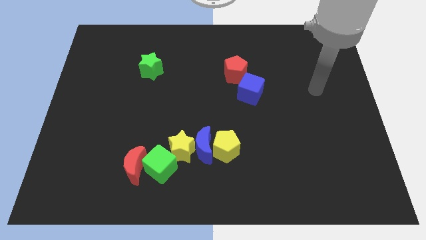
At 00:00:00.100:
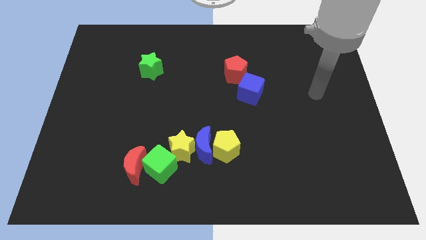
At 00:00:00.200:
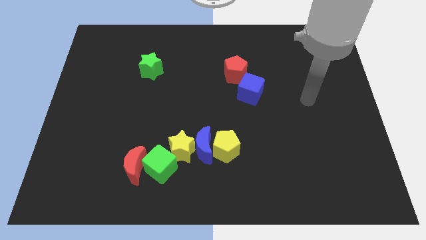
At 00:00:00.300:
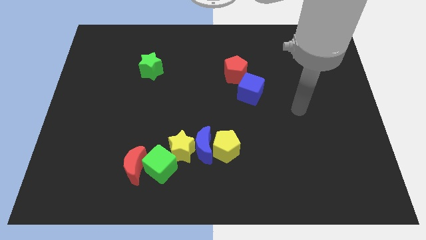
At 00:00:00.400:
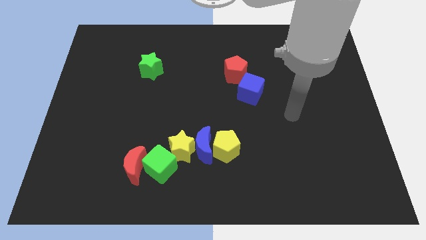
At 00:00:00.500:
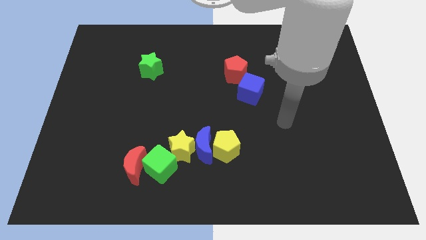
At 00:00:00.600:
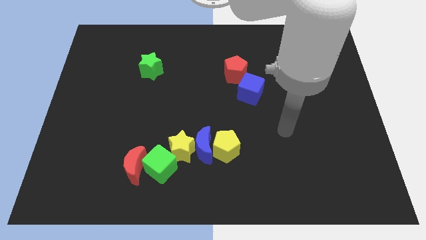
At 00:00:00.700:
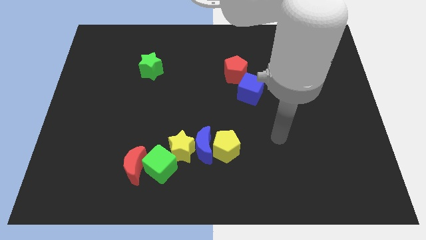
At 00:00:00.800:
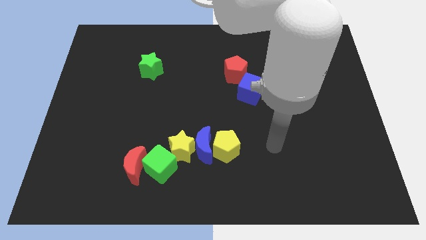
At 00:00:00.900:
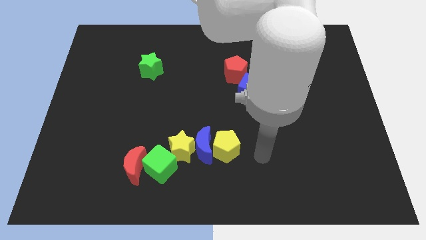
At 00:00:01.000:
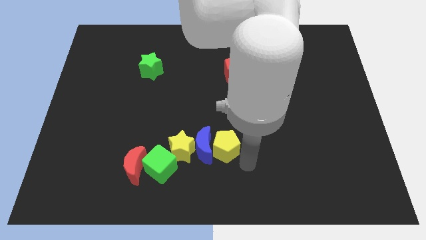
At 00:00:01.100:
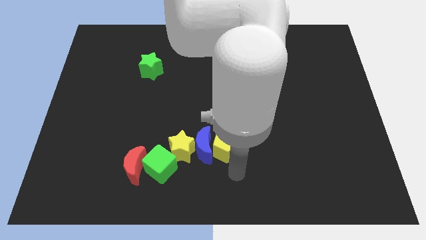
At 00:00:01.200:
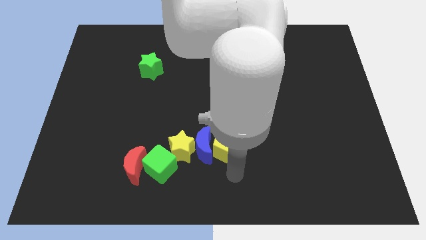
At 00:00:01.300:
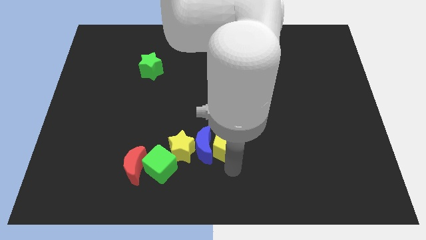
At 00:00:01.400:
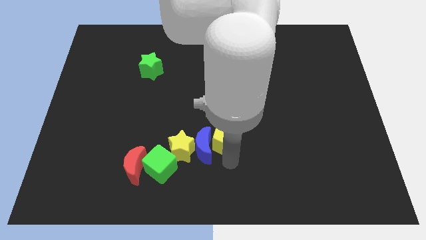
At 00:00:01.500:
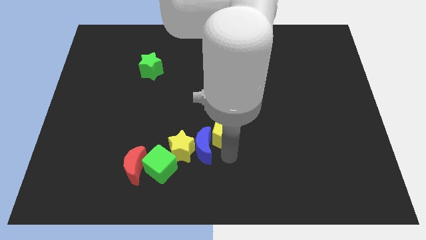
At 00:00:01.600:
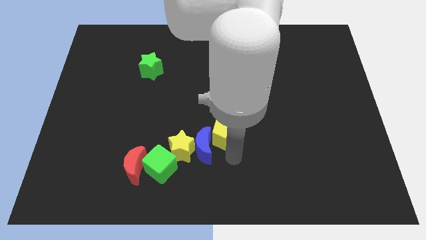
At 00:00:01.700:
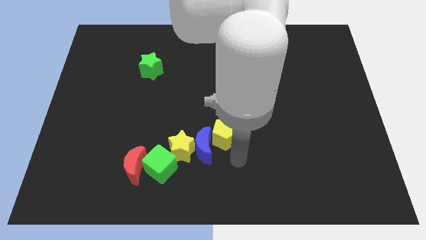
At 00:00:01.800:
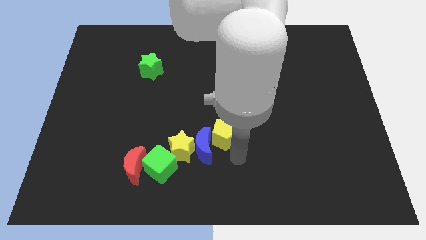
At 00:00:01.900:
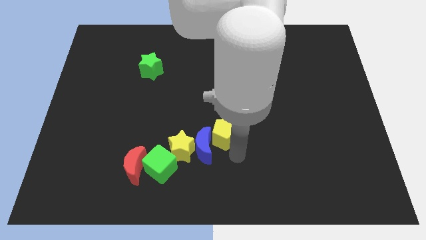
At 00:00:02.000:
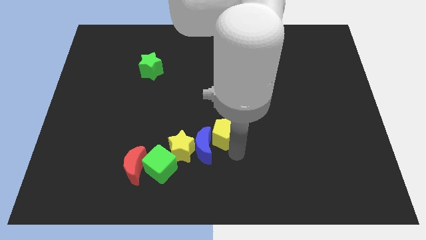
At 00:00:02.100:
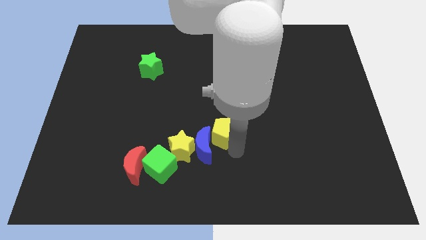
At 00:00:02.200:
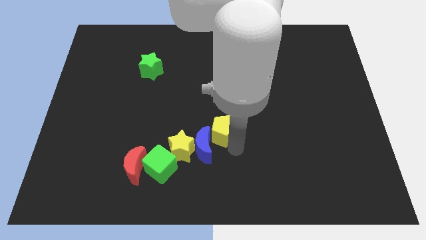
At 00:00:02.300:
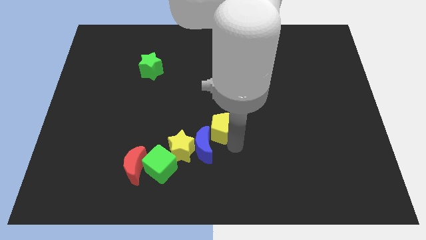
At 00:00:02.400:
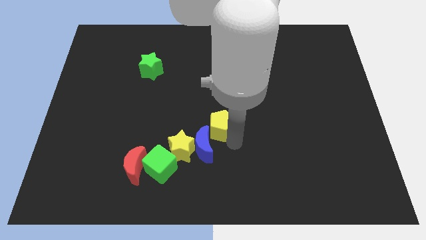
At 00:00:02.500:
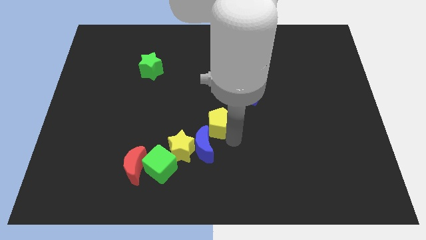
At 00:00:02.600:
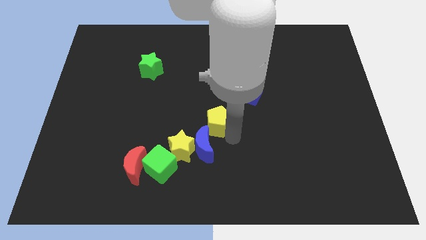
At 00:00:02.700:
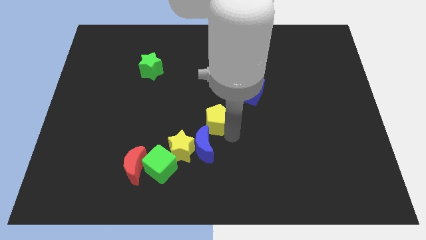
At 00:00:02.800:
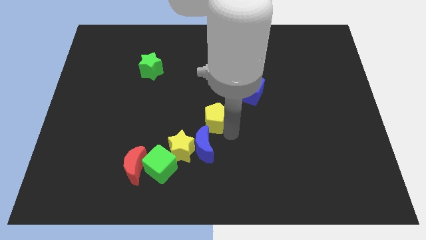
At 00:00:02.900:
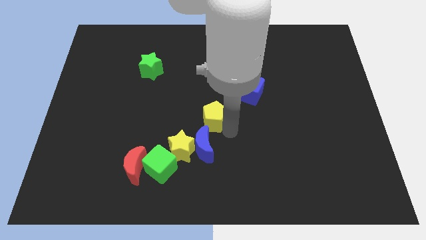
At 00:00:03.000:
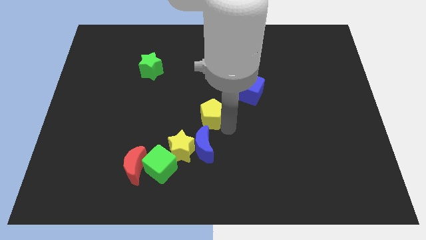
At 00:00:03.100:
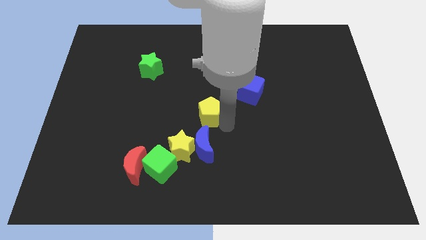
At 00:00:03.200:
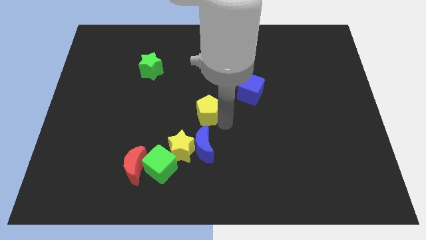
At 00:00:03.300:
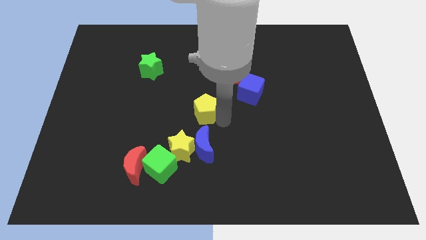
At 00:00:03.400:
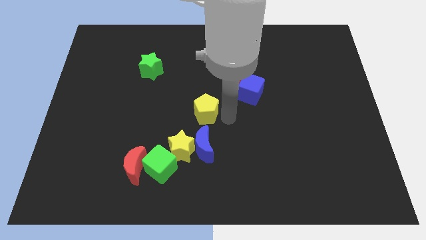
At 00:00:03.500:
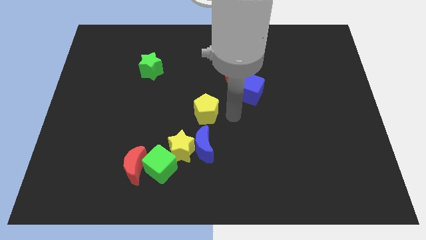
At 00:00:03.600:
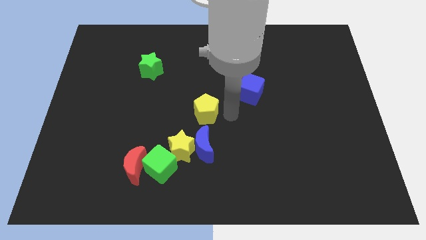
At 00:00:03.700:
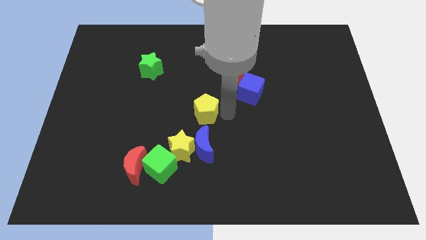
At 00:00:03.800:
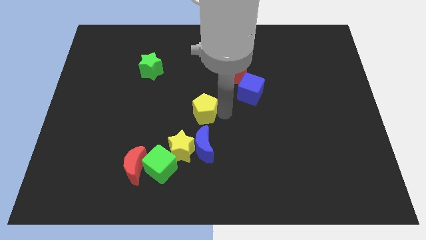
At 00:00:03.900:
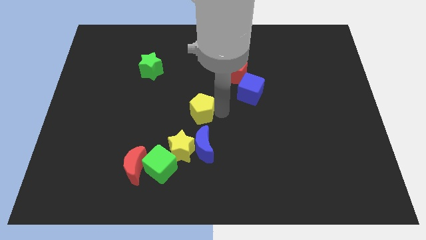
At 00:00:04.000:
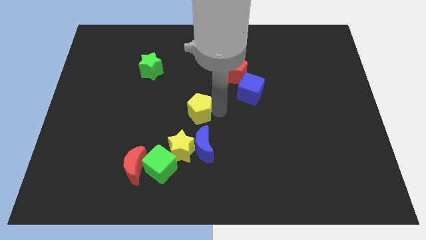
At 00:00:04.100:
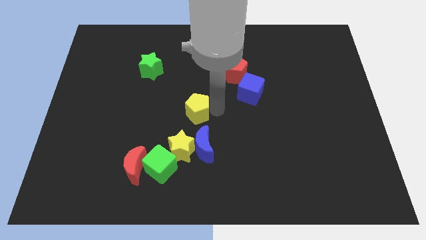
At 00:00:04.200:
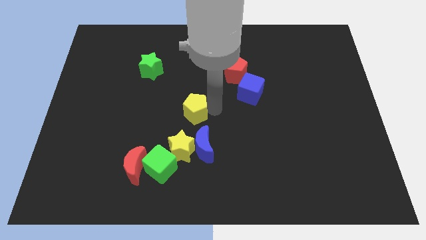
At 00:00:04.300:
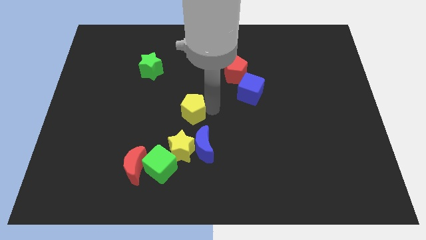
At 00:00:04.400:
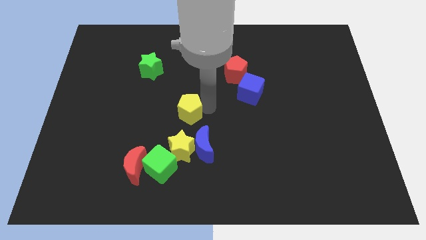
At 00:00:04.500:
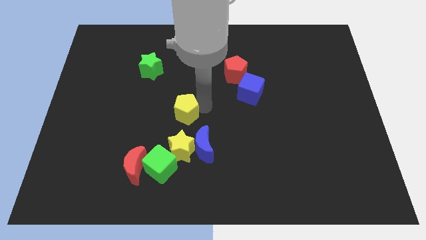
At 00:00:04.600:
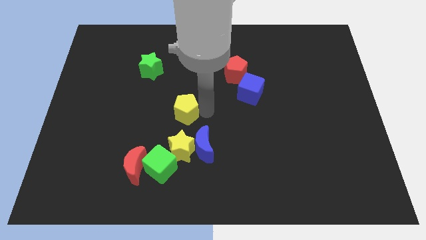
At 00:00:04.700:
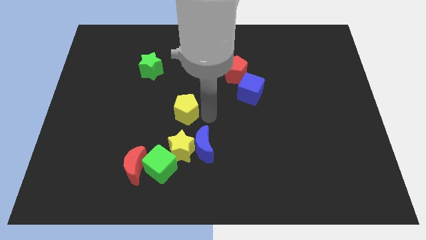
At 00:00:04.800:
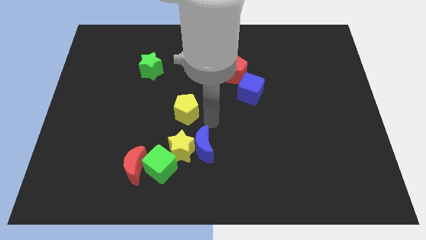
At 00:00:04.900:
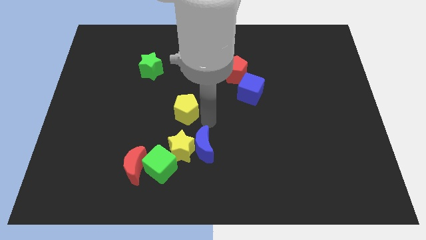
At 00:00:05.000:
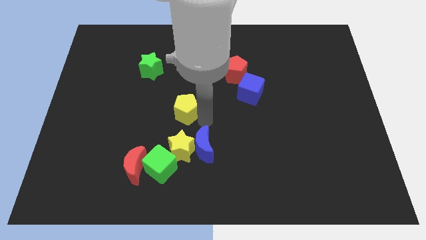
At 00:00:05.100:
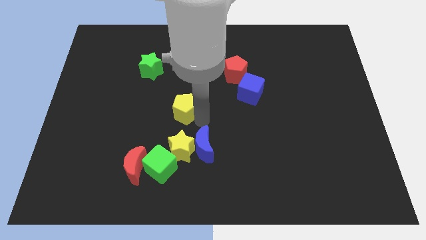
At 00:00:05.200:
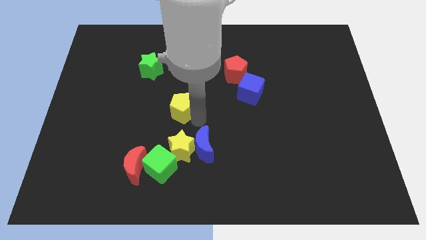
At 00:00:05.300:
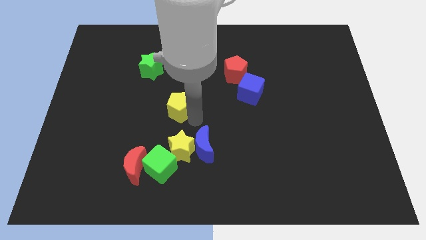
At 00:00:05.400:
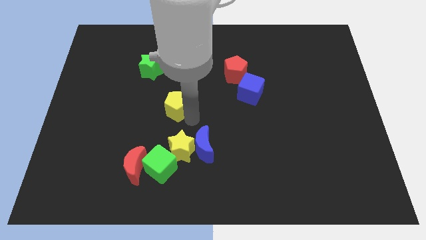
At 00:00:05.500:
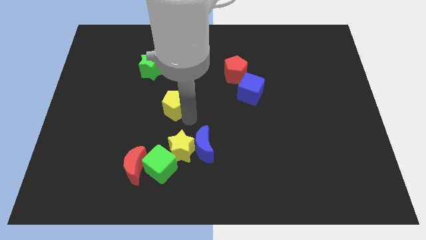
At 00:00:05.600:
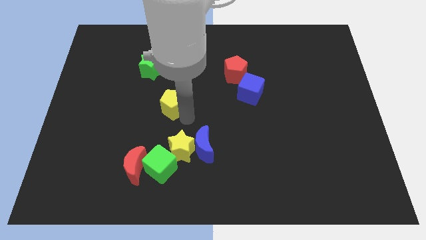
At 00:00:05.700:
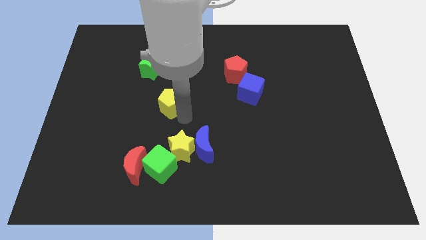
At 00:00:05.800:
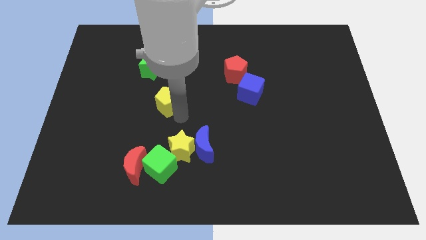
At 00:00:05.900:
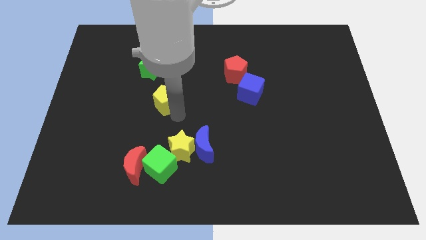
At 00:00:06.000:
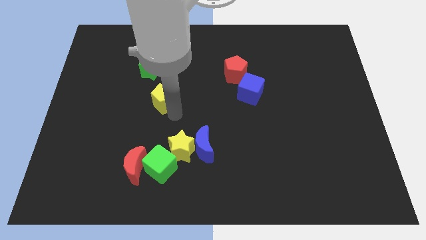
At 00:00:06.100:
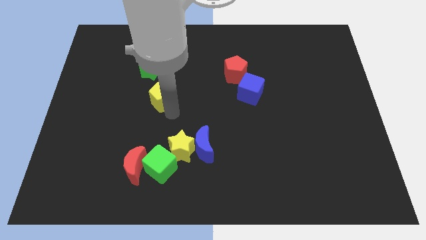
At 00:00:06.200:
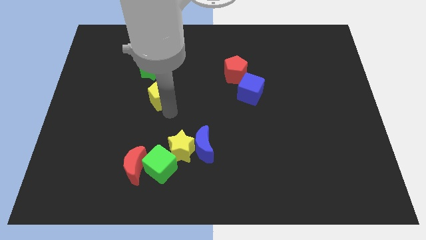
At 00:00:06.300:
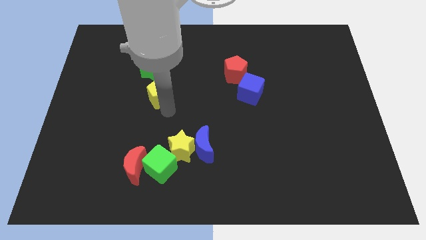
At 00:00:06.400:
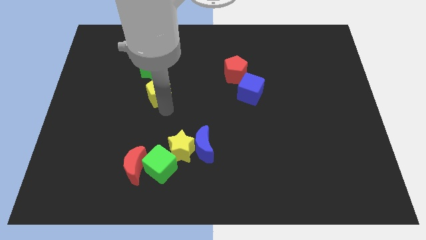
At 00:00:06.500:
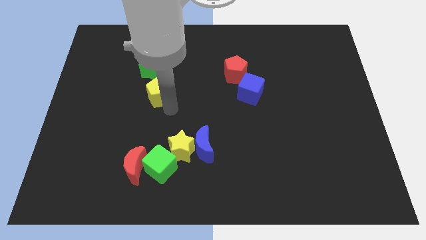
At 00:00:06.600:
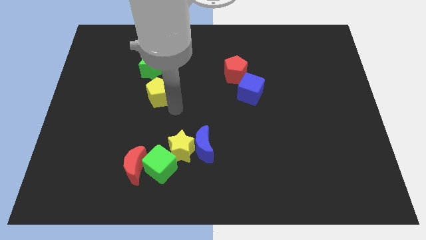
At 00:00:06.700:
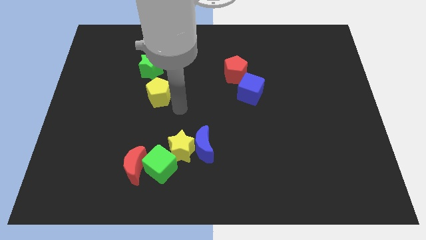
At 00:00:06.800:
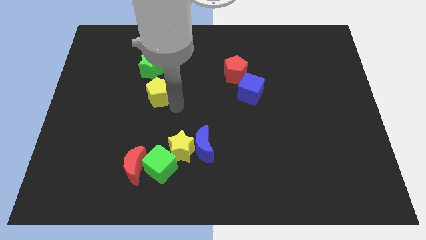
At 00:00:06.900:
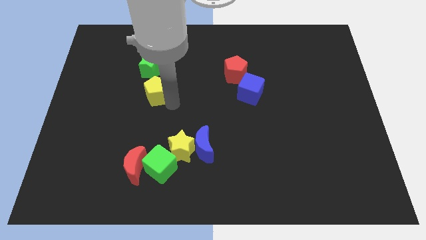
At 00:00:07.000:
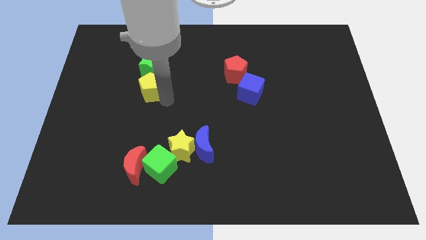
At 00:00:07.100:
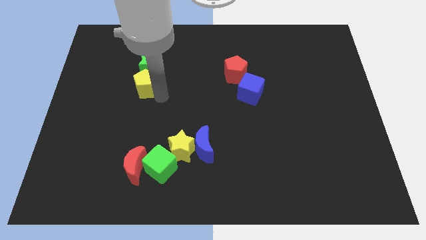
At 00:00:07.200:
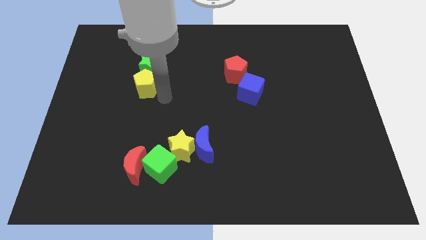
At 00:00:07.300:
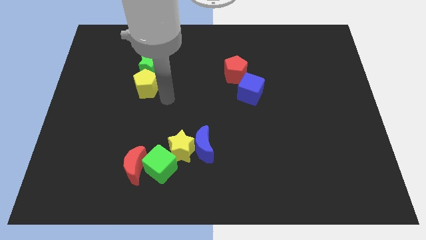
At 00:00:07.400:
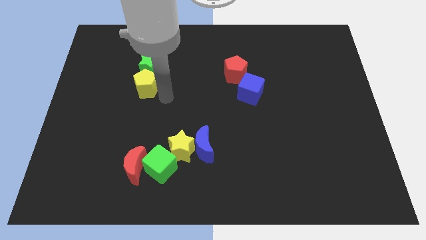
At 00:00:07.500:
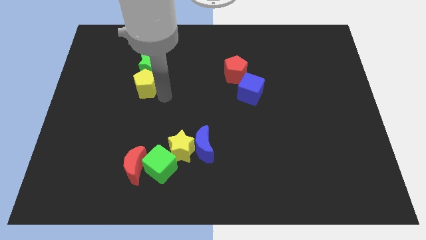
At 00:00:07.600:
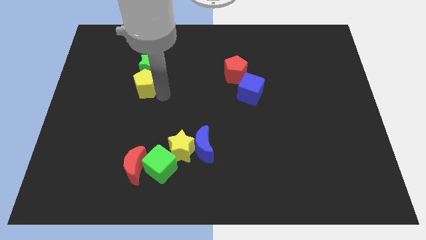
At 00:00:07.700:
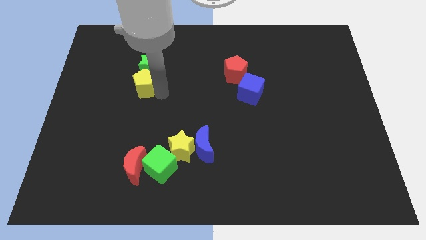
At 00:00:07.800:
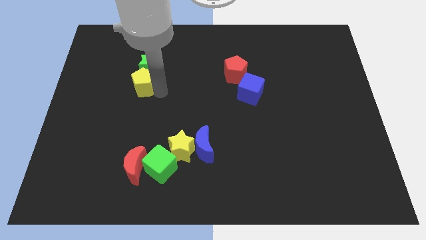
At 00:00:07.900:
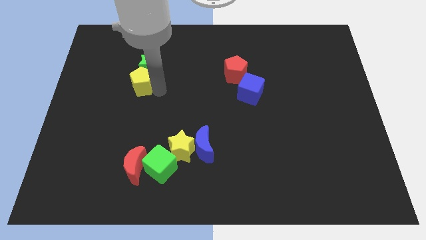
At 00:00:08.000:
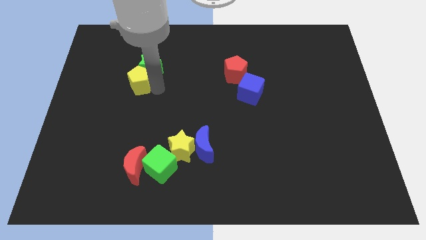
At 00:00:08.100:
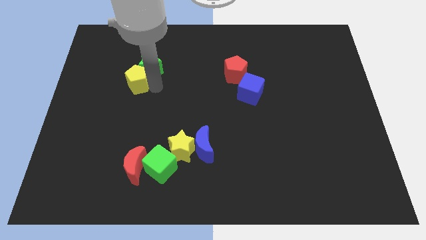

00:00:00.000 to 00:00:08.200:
slide the yellow pentagon to the left side of the green star
